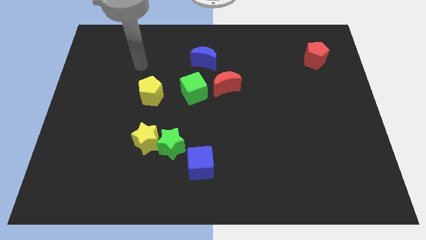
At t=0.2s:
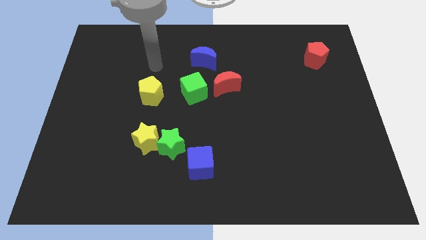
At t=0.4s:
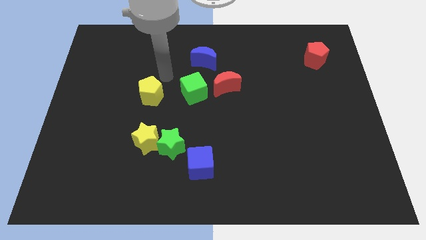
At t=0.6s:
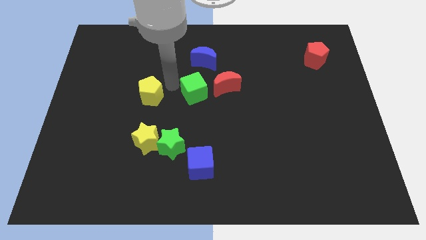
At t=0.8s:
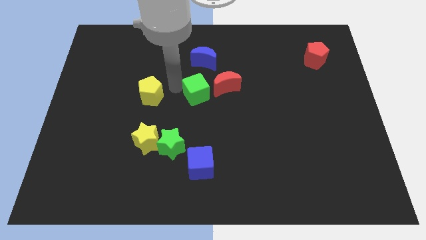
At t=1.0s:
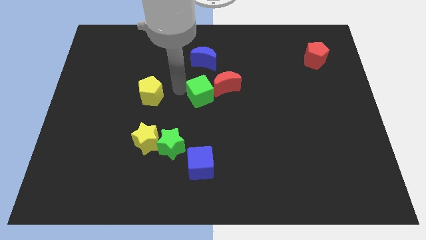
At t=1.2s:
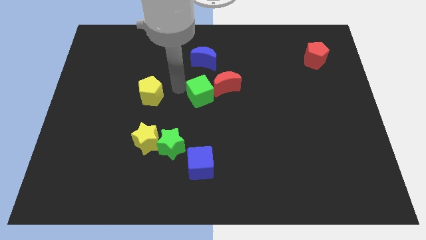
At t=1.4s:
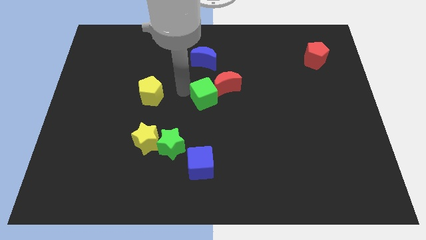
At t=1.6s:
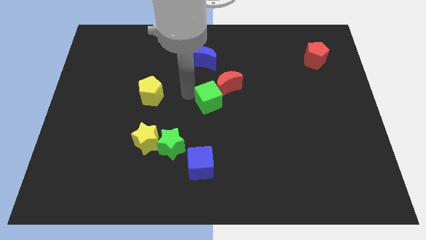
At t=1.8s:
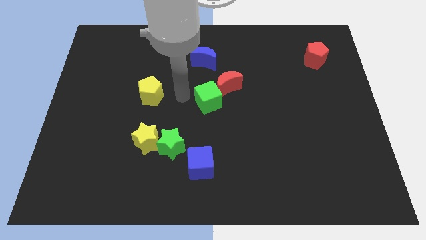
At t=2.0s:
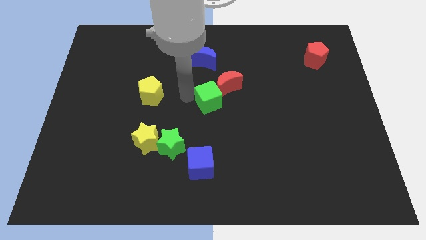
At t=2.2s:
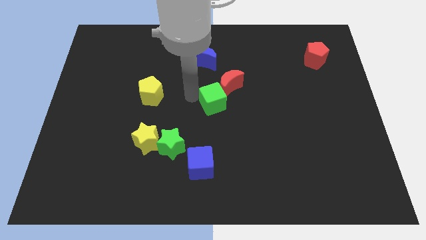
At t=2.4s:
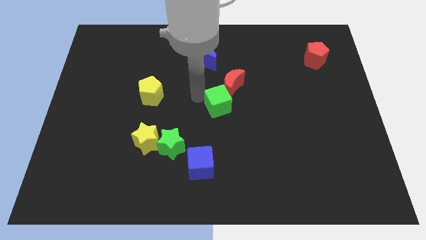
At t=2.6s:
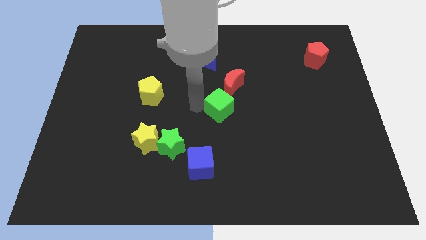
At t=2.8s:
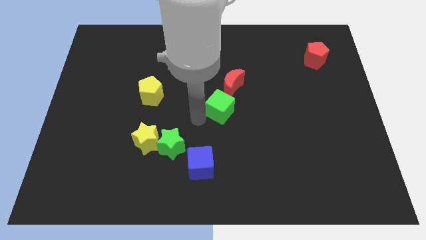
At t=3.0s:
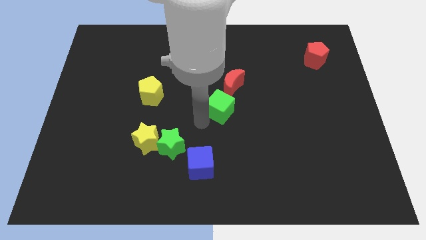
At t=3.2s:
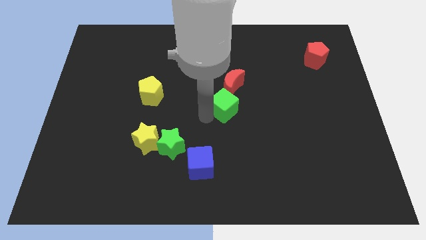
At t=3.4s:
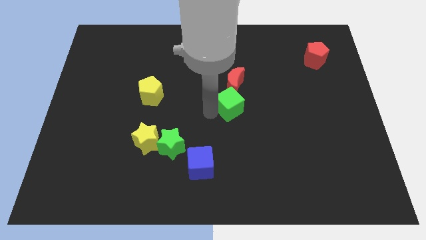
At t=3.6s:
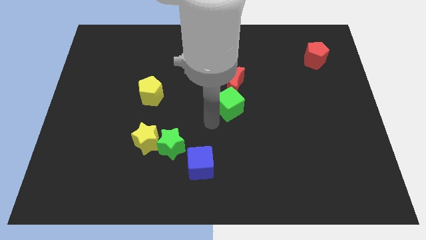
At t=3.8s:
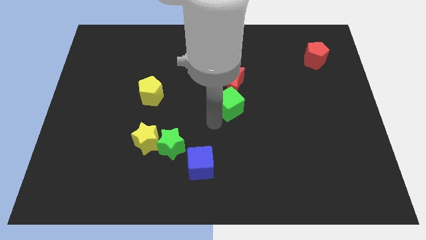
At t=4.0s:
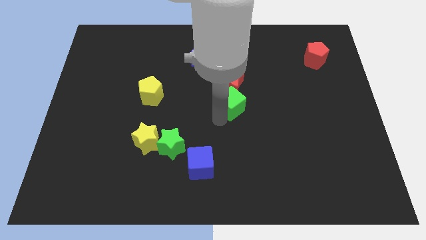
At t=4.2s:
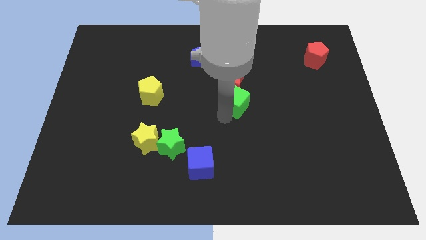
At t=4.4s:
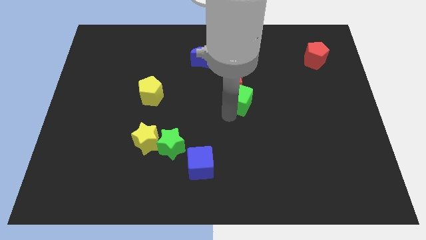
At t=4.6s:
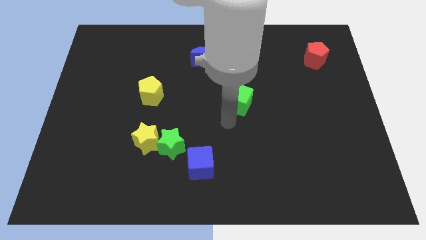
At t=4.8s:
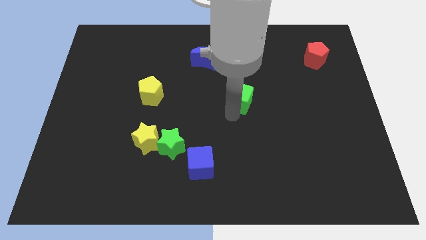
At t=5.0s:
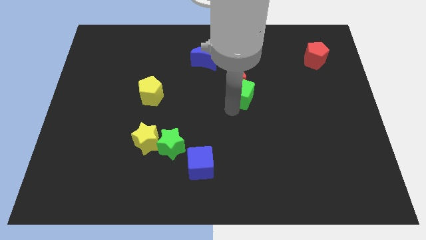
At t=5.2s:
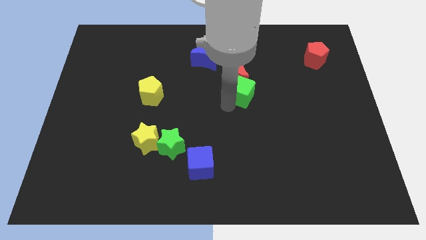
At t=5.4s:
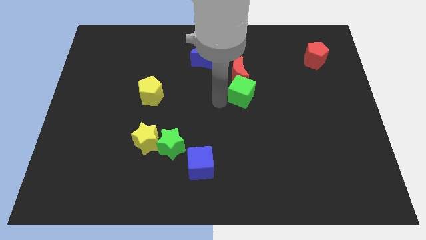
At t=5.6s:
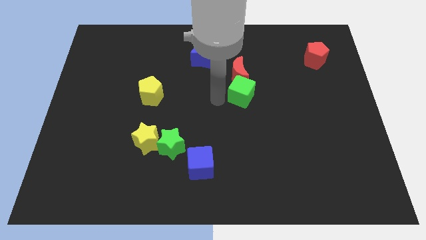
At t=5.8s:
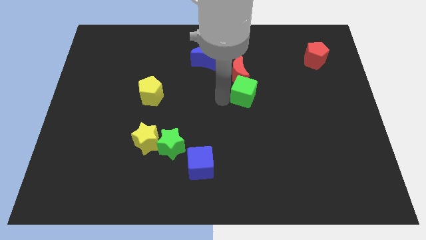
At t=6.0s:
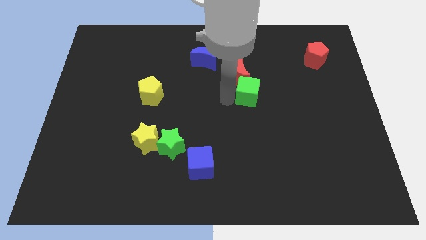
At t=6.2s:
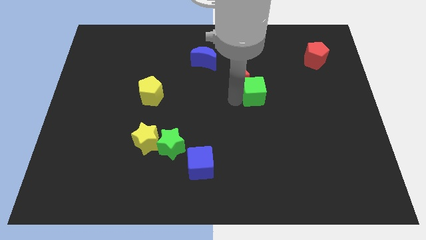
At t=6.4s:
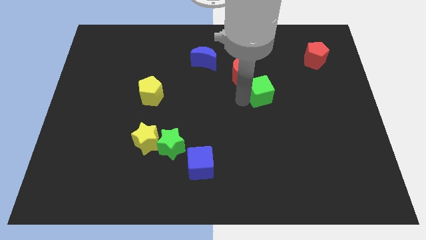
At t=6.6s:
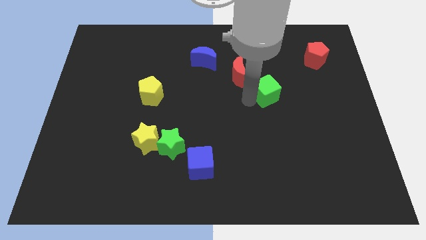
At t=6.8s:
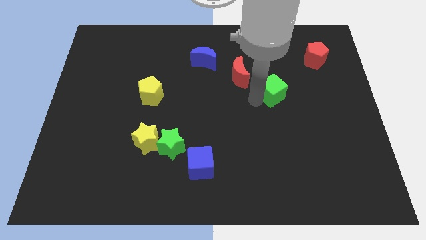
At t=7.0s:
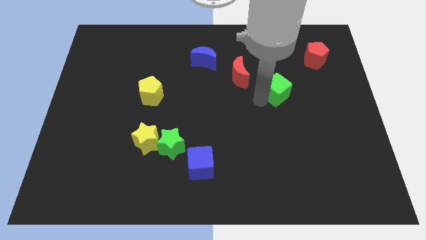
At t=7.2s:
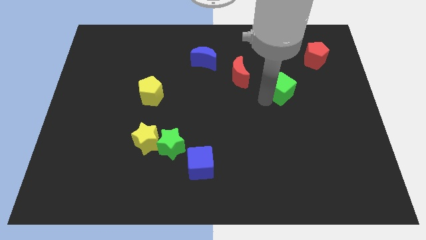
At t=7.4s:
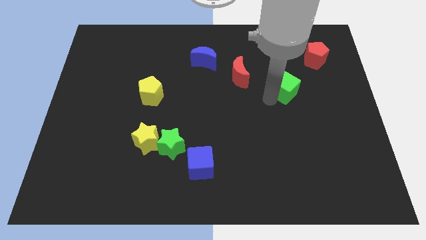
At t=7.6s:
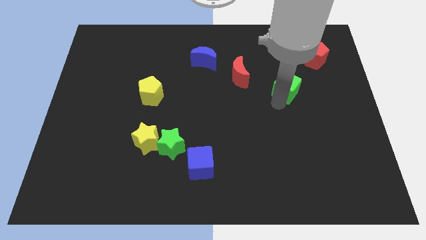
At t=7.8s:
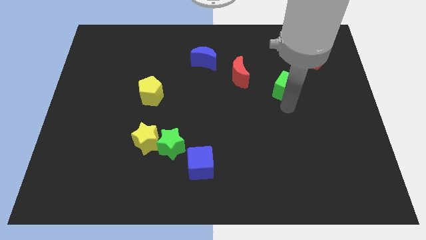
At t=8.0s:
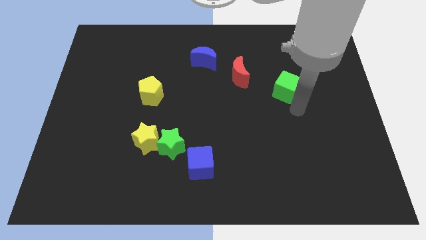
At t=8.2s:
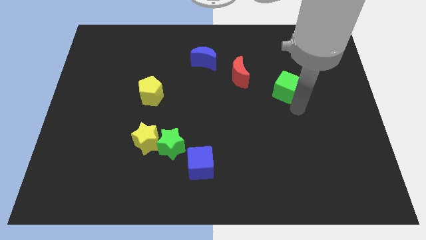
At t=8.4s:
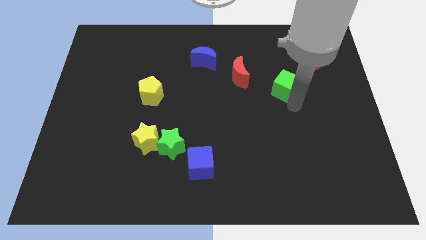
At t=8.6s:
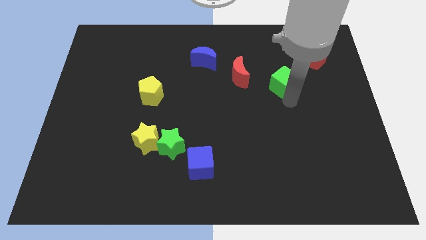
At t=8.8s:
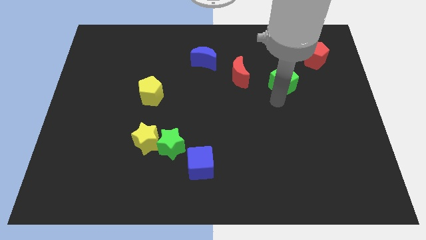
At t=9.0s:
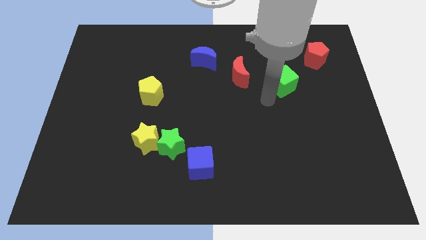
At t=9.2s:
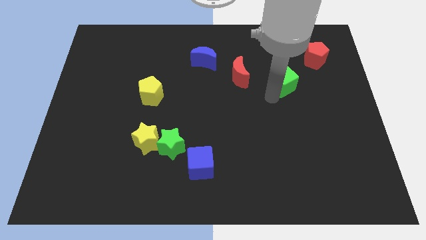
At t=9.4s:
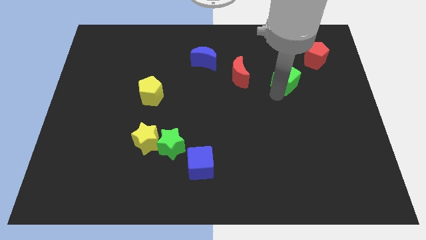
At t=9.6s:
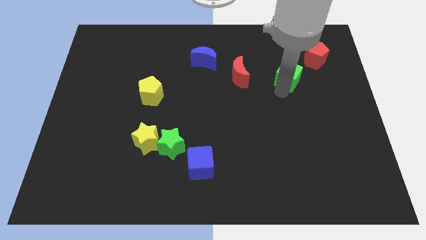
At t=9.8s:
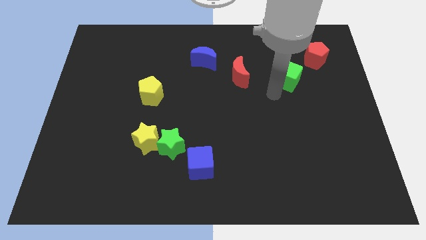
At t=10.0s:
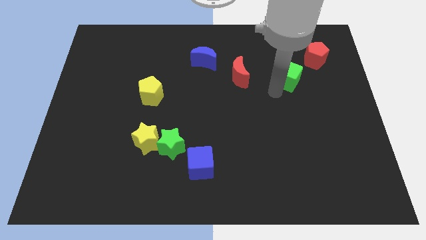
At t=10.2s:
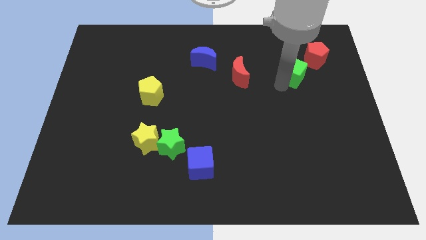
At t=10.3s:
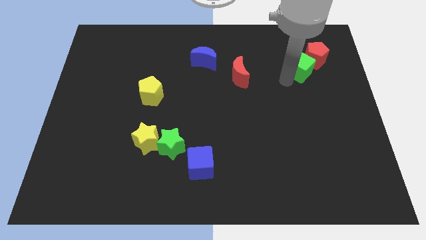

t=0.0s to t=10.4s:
move the green cube next to the red pentagon

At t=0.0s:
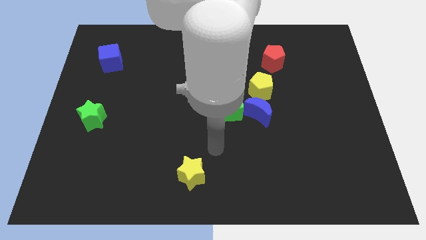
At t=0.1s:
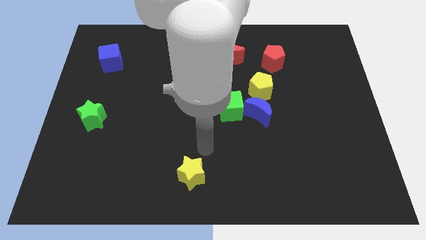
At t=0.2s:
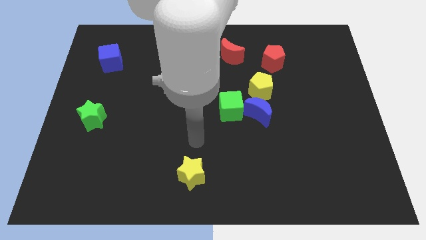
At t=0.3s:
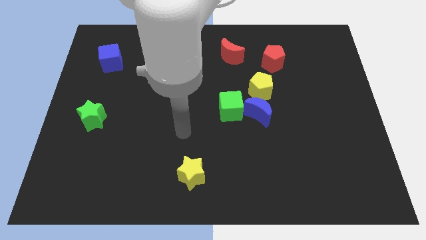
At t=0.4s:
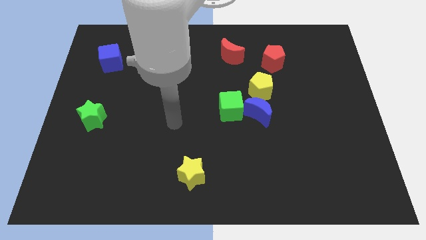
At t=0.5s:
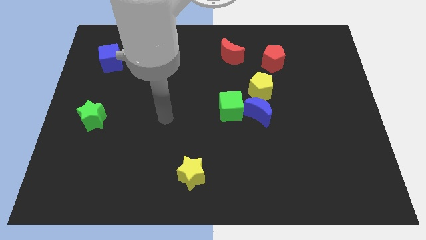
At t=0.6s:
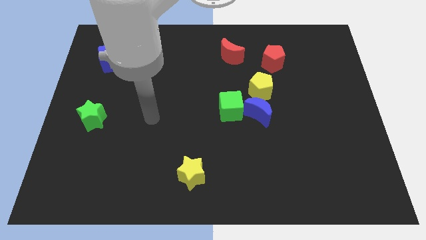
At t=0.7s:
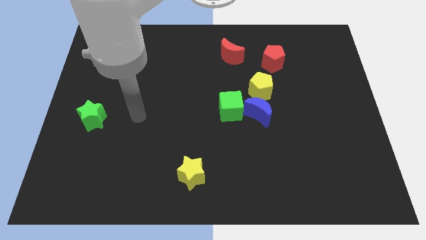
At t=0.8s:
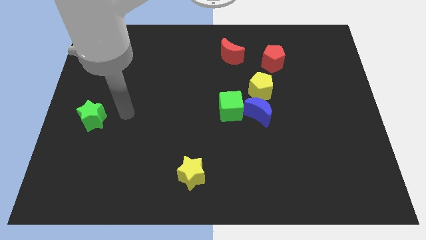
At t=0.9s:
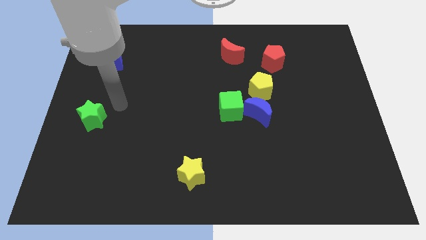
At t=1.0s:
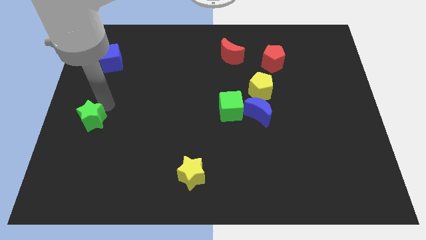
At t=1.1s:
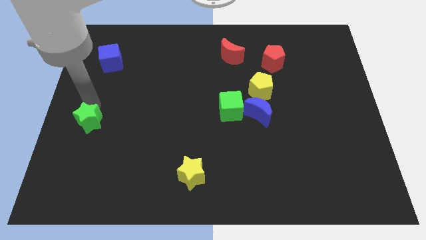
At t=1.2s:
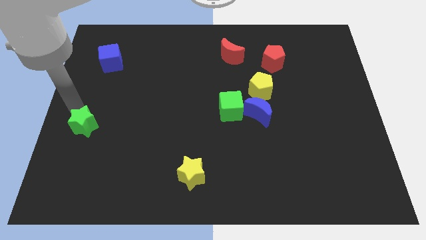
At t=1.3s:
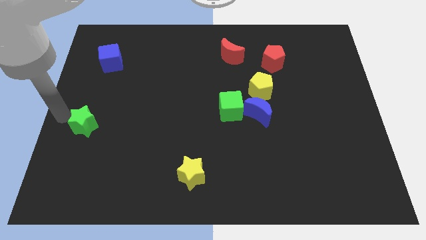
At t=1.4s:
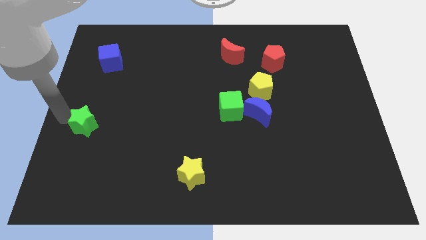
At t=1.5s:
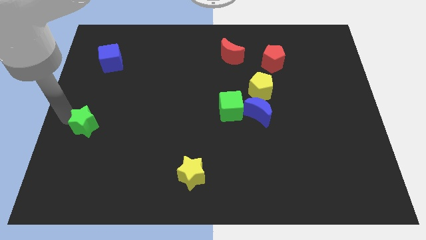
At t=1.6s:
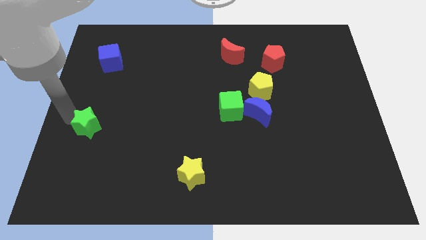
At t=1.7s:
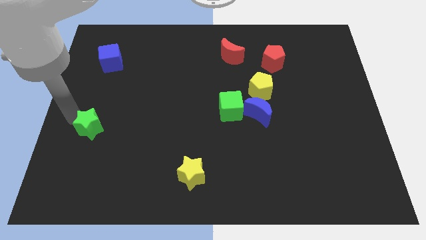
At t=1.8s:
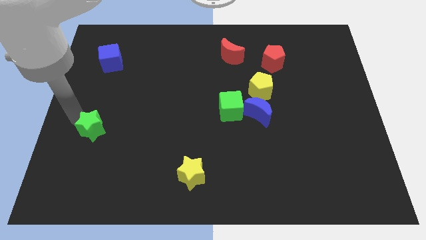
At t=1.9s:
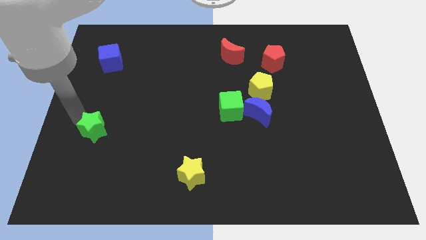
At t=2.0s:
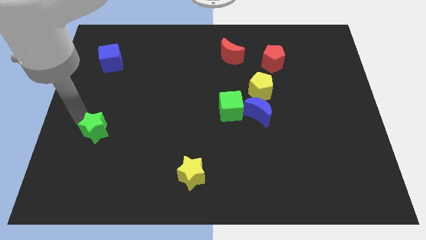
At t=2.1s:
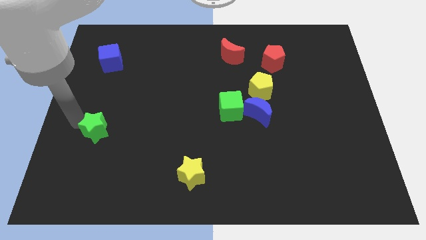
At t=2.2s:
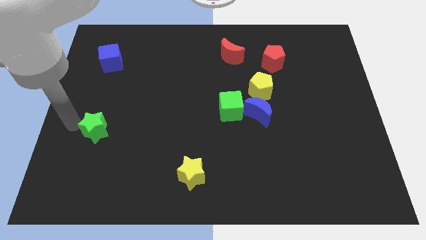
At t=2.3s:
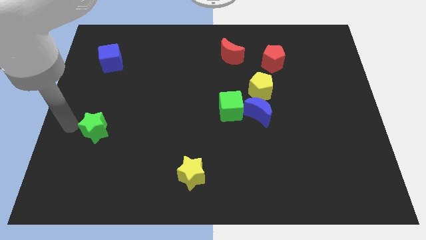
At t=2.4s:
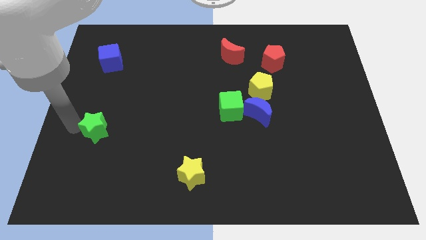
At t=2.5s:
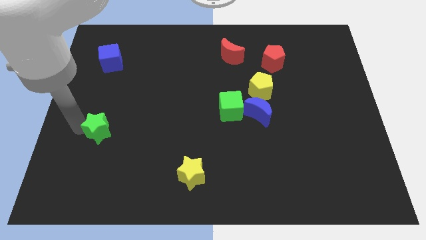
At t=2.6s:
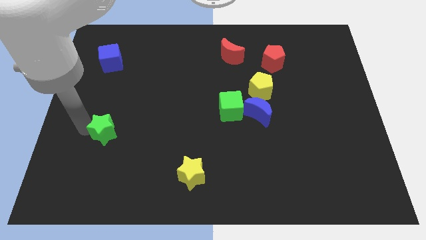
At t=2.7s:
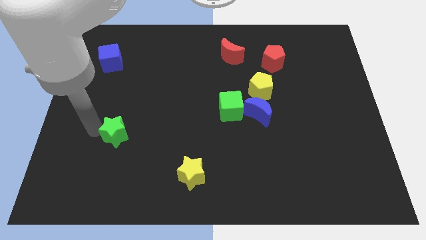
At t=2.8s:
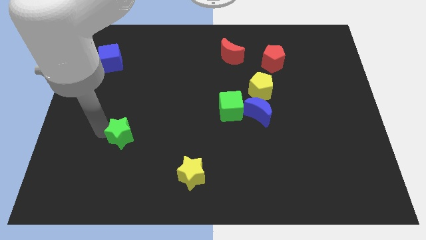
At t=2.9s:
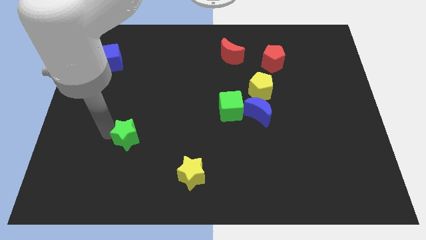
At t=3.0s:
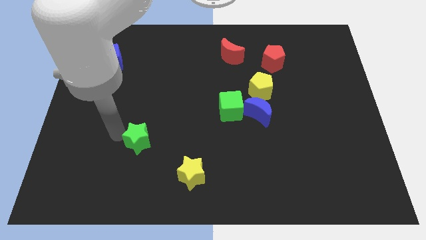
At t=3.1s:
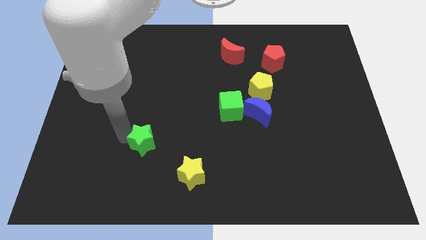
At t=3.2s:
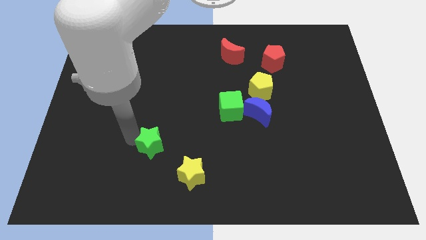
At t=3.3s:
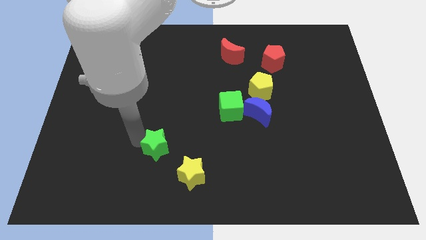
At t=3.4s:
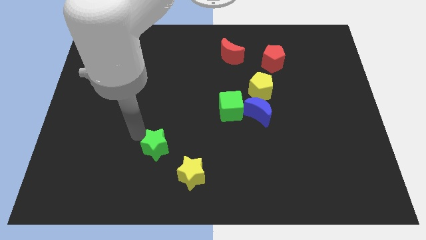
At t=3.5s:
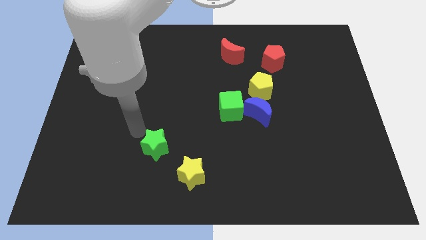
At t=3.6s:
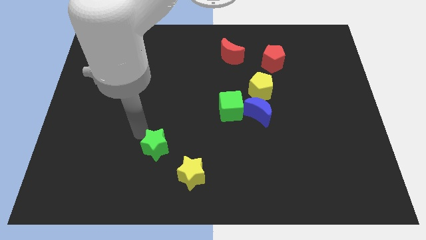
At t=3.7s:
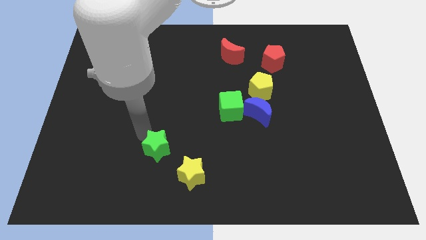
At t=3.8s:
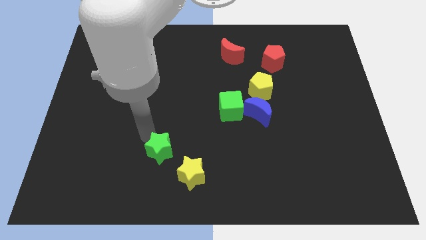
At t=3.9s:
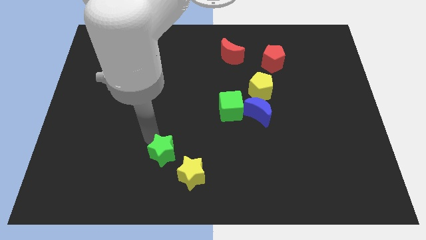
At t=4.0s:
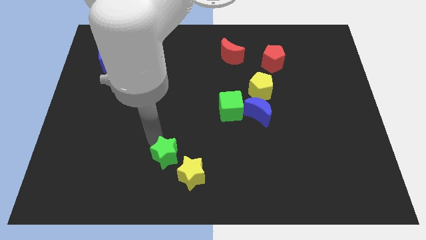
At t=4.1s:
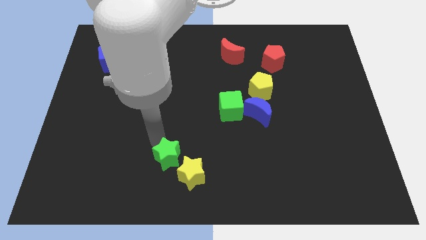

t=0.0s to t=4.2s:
slide the green star next to the yellow star
